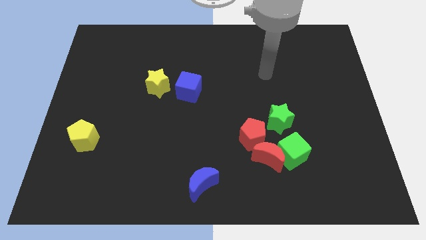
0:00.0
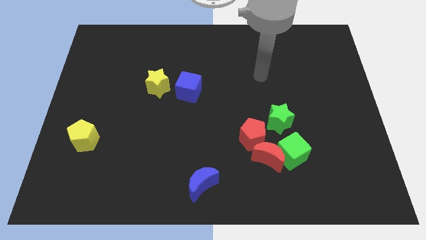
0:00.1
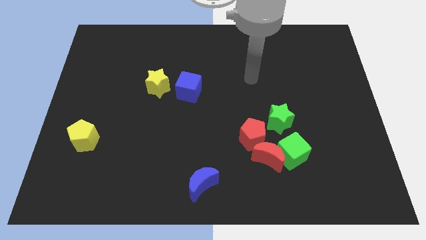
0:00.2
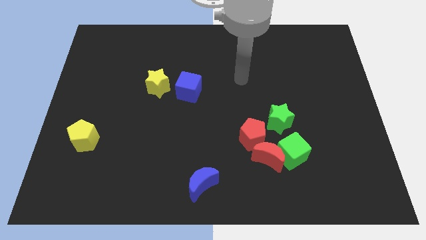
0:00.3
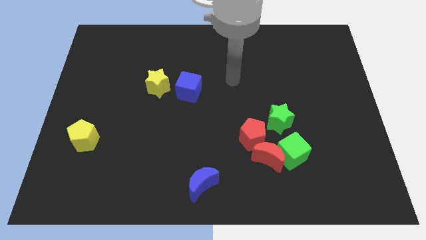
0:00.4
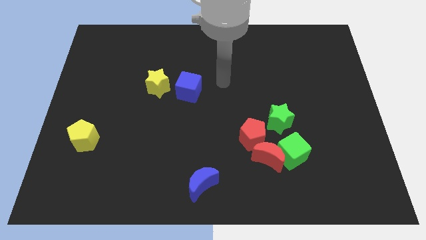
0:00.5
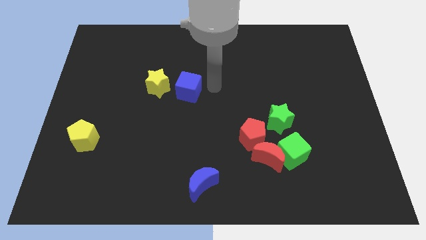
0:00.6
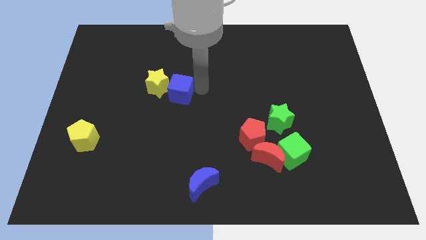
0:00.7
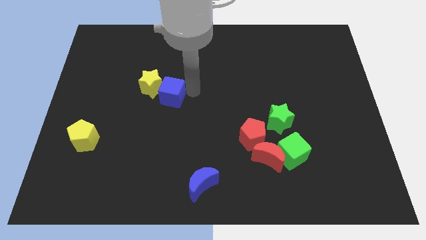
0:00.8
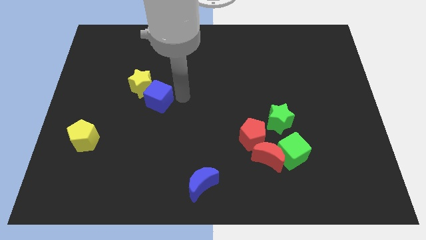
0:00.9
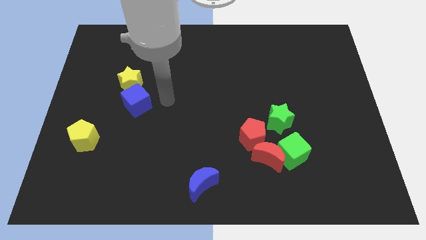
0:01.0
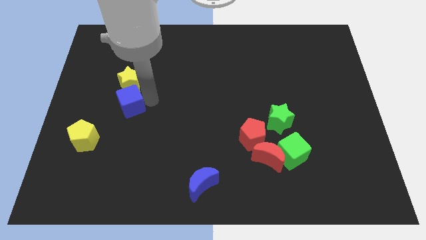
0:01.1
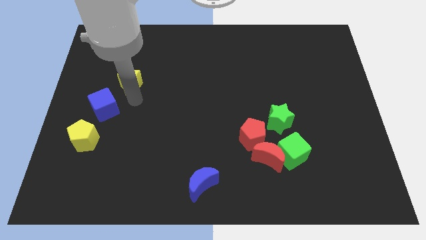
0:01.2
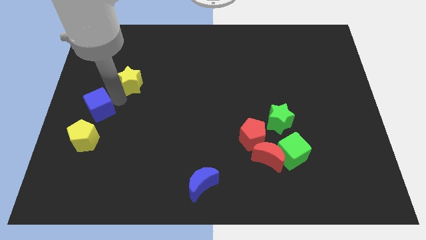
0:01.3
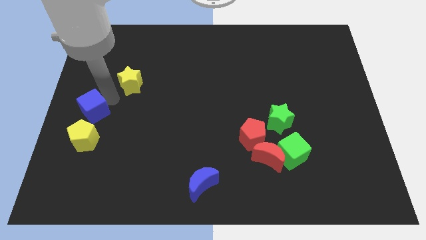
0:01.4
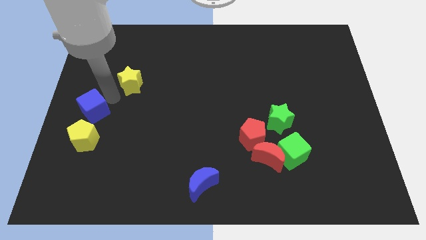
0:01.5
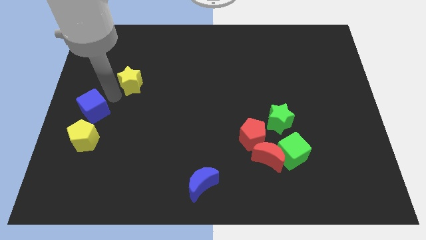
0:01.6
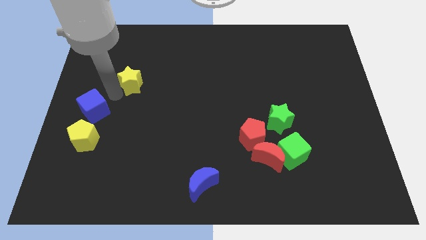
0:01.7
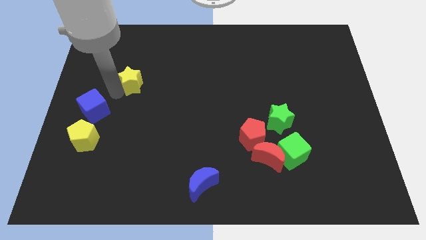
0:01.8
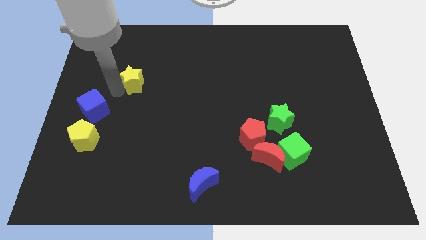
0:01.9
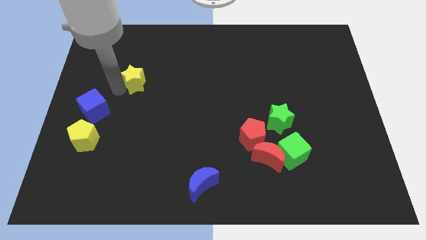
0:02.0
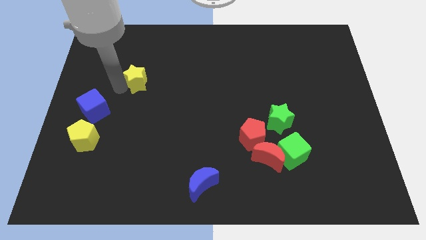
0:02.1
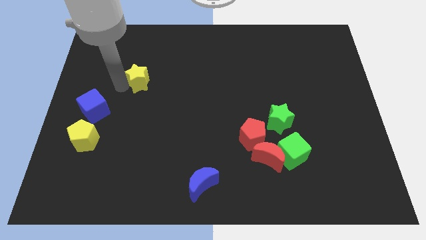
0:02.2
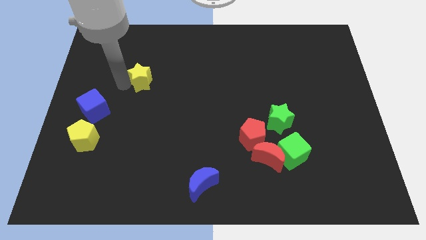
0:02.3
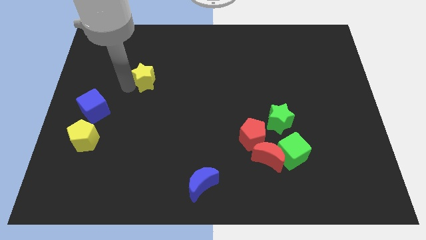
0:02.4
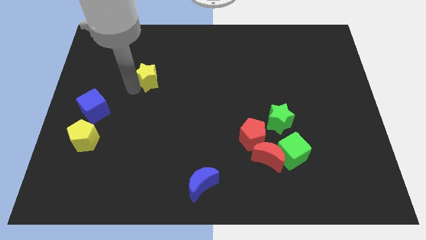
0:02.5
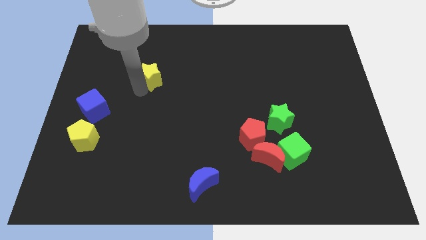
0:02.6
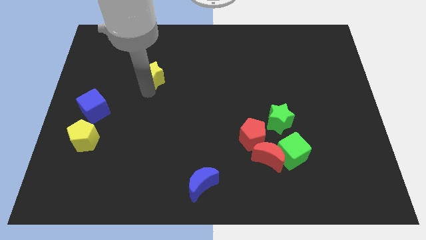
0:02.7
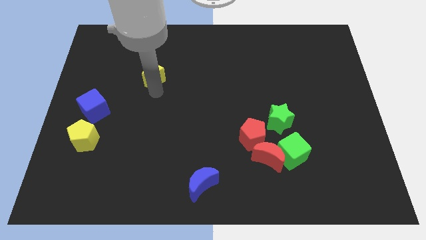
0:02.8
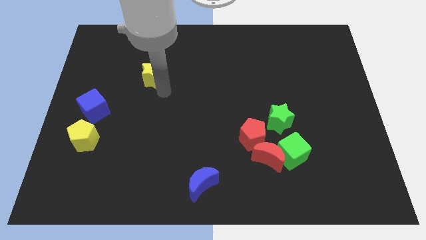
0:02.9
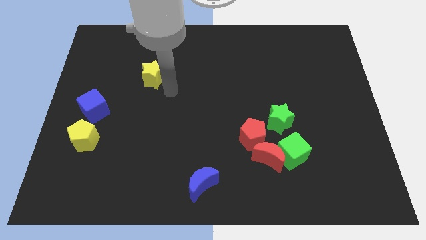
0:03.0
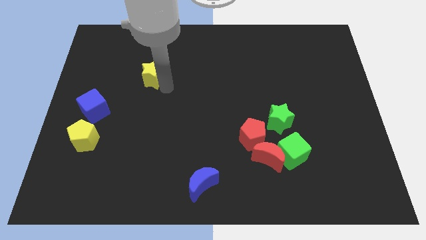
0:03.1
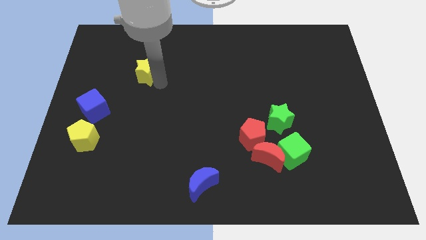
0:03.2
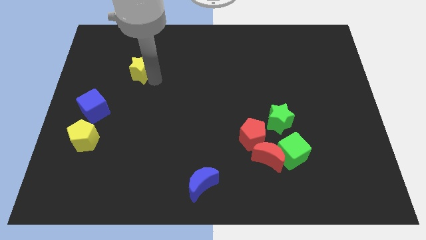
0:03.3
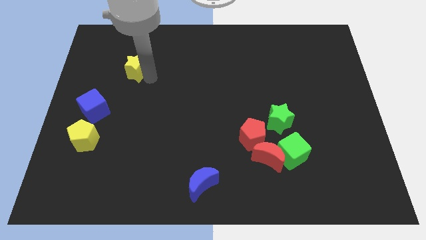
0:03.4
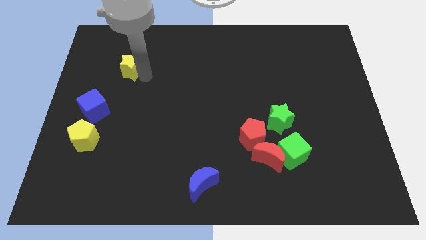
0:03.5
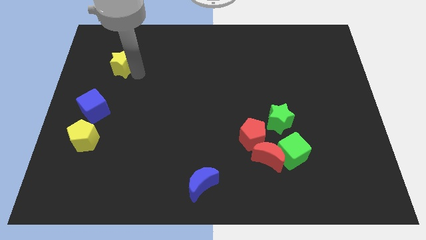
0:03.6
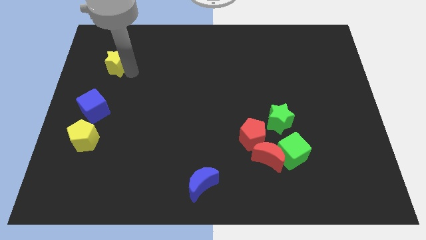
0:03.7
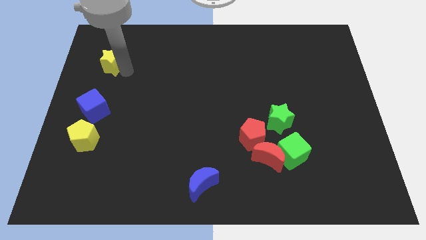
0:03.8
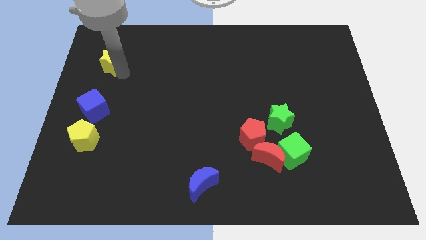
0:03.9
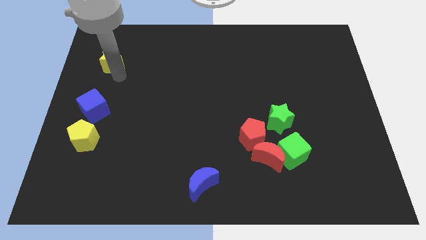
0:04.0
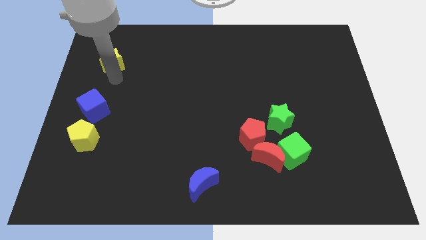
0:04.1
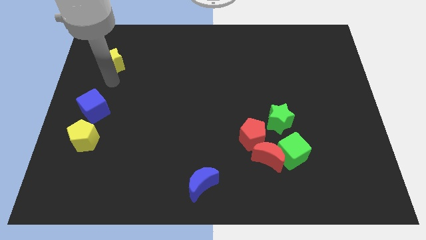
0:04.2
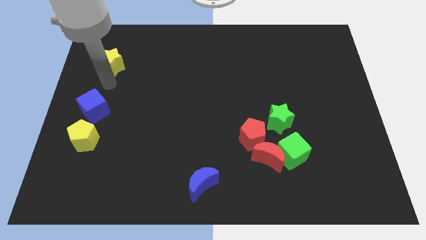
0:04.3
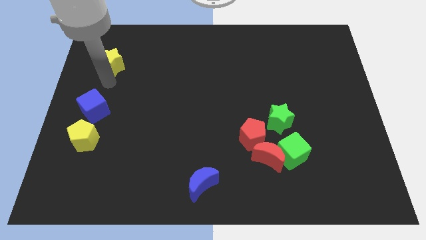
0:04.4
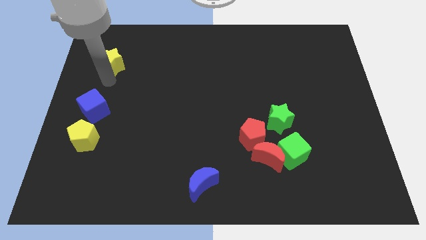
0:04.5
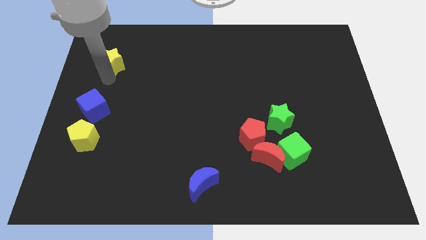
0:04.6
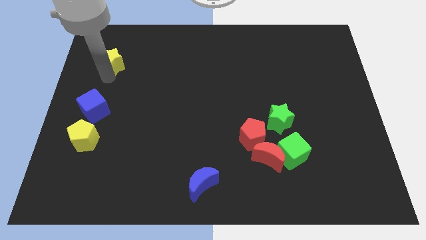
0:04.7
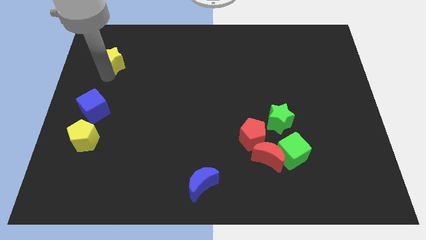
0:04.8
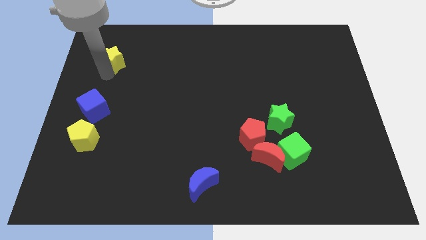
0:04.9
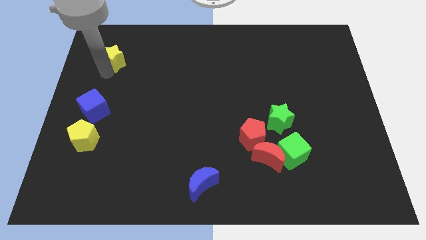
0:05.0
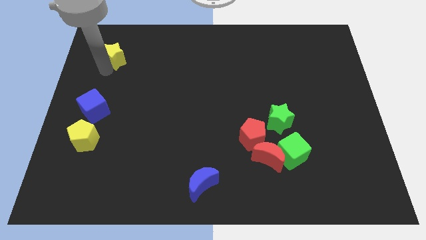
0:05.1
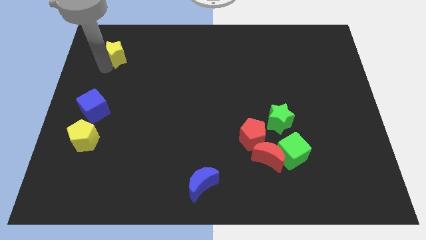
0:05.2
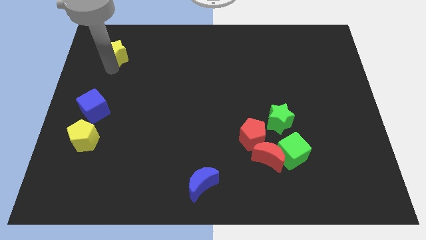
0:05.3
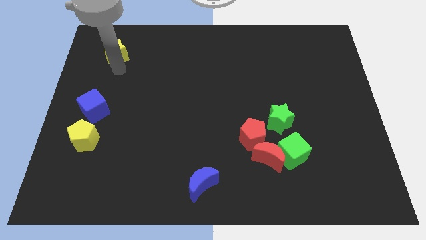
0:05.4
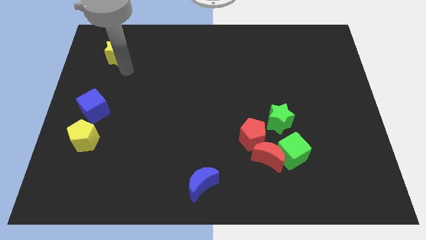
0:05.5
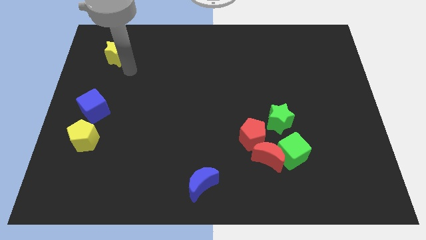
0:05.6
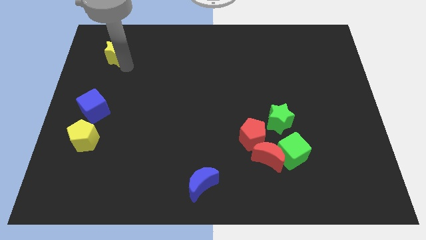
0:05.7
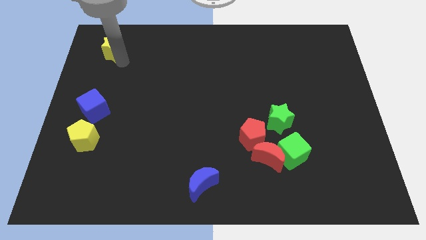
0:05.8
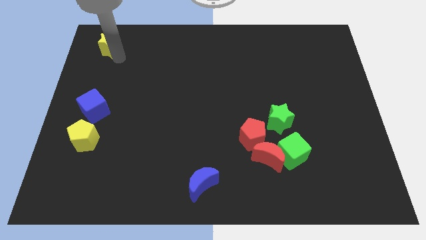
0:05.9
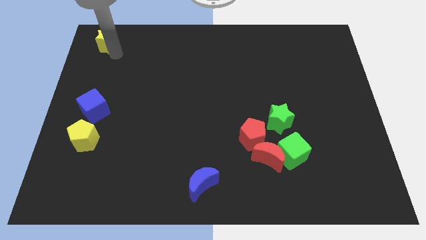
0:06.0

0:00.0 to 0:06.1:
slide the yellow star to the top left corner
